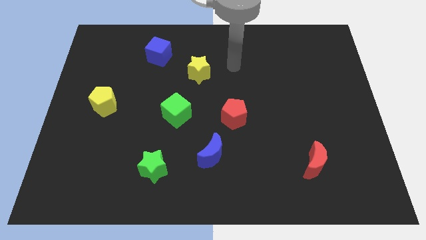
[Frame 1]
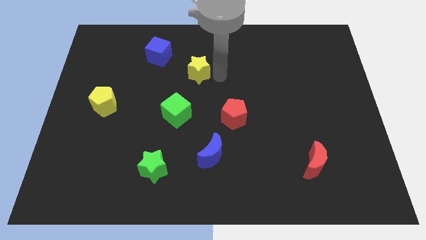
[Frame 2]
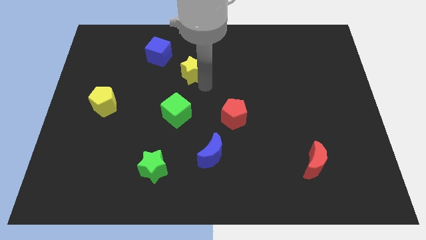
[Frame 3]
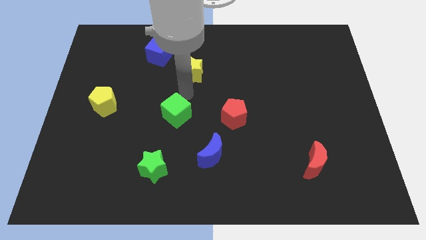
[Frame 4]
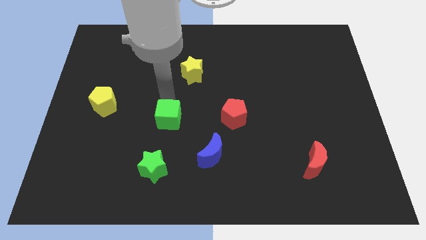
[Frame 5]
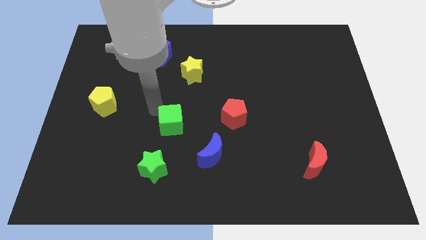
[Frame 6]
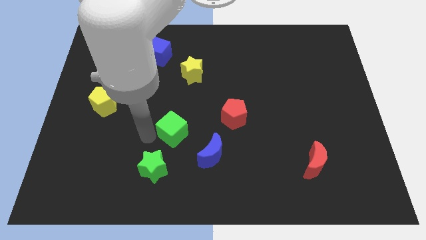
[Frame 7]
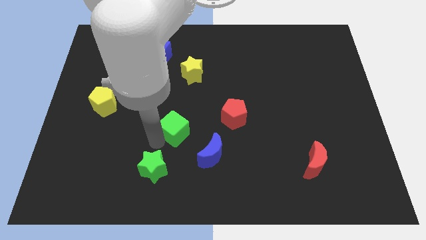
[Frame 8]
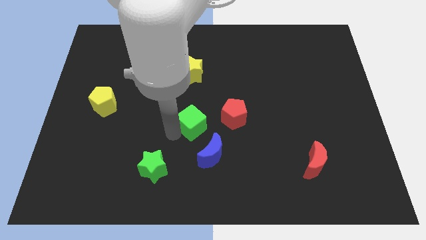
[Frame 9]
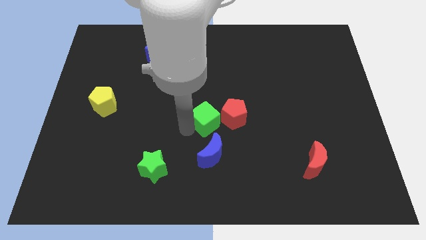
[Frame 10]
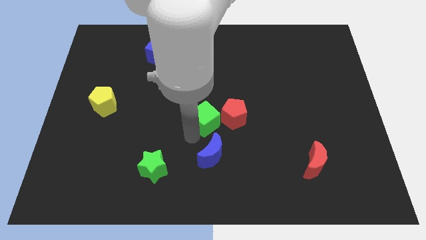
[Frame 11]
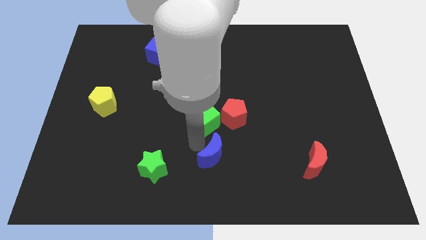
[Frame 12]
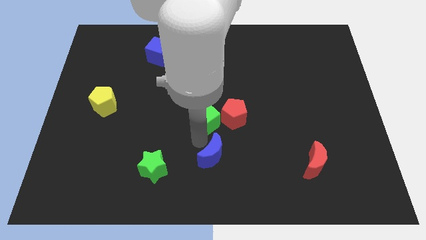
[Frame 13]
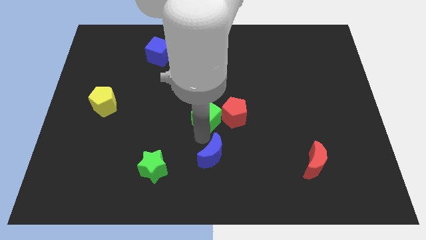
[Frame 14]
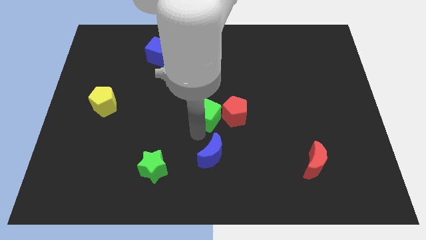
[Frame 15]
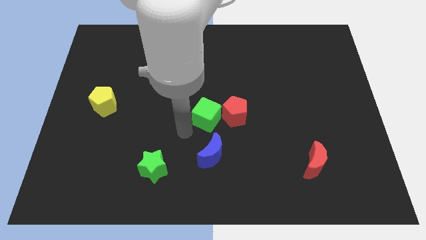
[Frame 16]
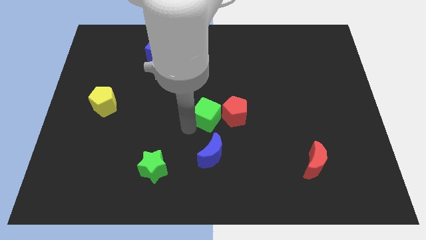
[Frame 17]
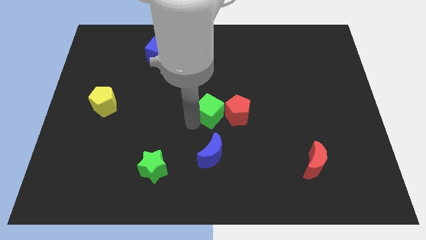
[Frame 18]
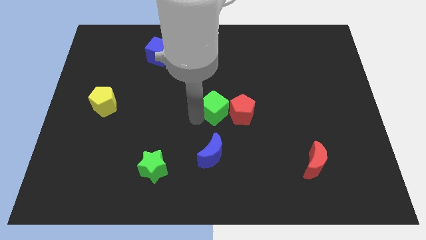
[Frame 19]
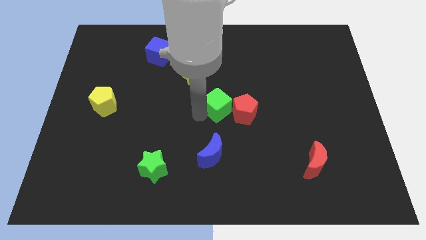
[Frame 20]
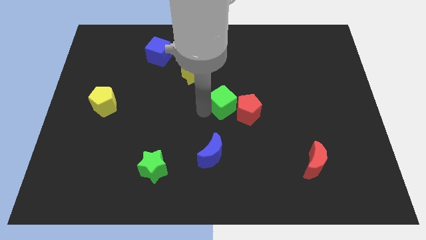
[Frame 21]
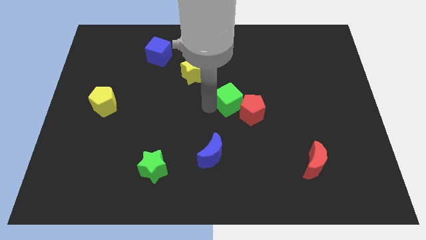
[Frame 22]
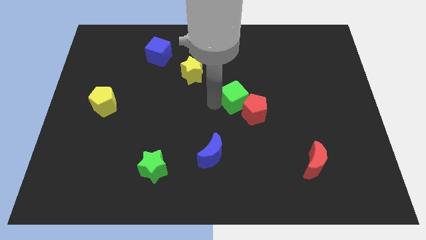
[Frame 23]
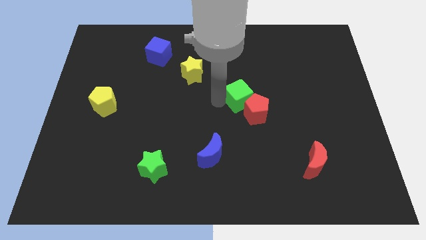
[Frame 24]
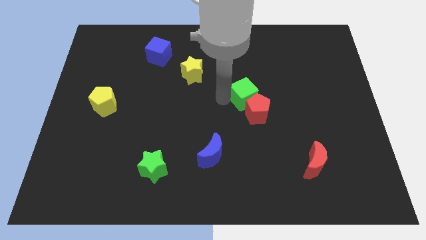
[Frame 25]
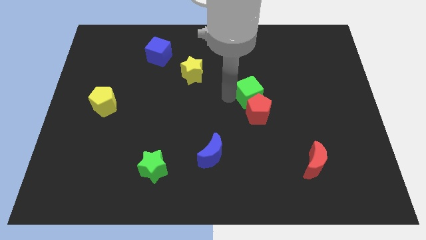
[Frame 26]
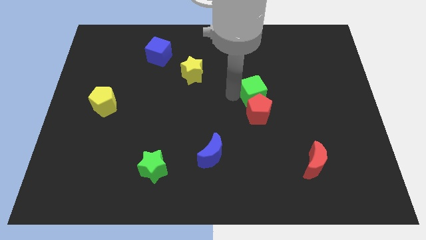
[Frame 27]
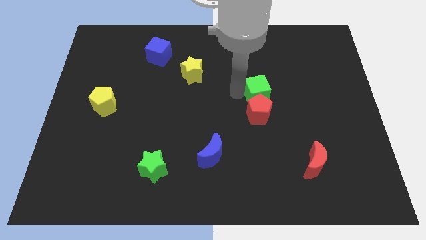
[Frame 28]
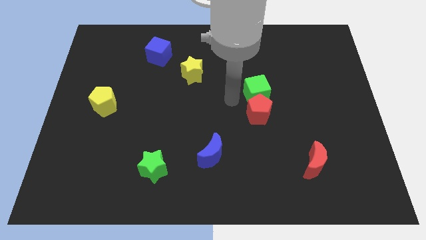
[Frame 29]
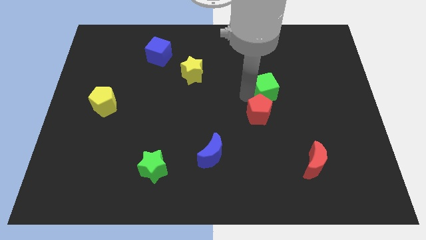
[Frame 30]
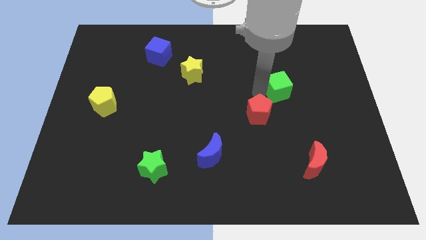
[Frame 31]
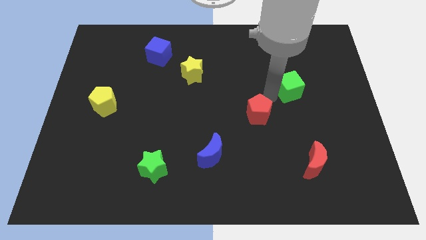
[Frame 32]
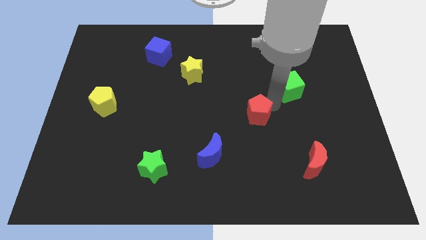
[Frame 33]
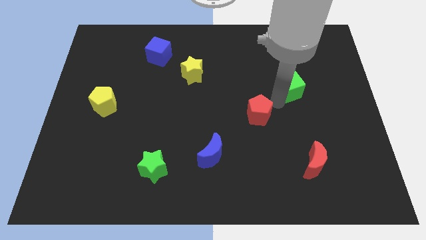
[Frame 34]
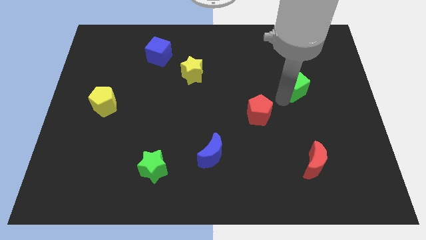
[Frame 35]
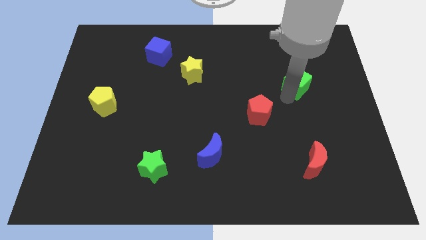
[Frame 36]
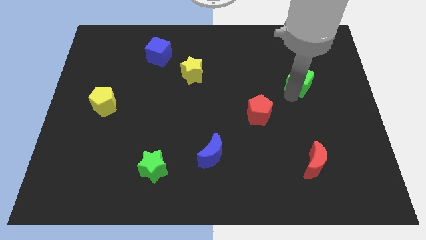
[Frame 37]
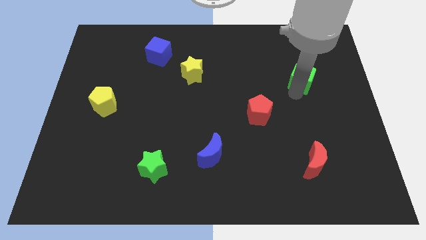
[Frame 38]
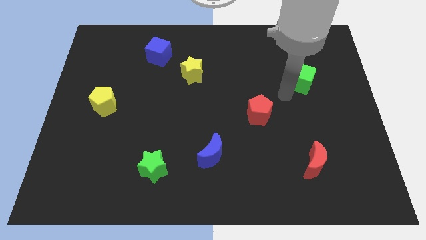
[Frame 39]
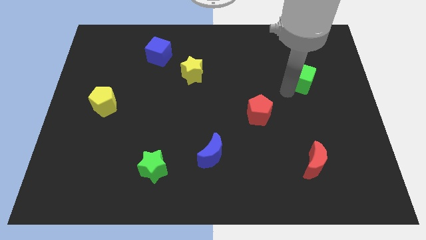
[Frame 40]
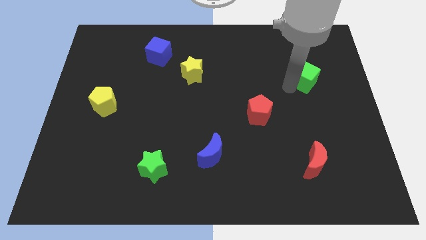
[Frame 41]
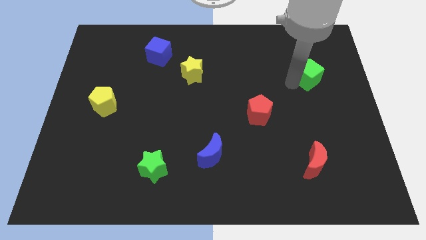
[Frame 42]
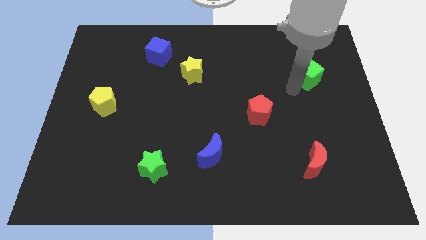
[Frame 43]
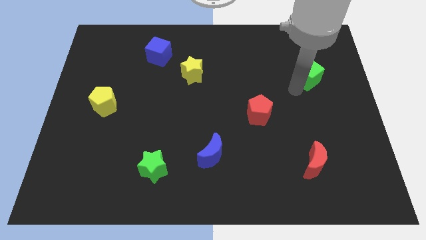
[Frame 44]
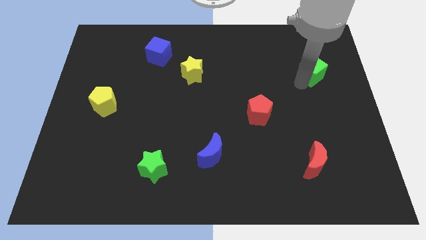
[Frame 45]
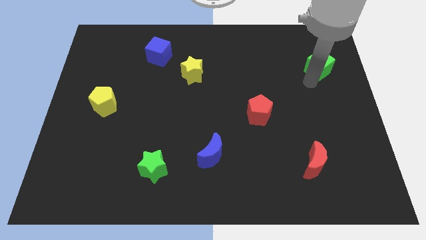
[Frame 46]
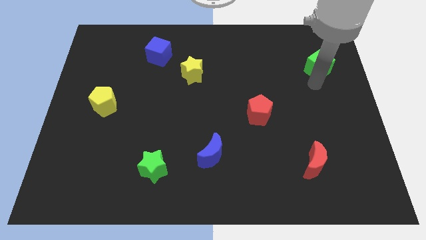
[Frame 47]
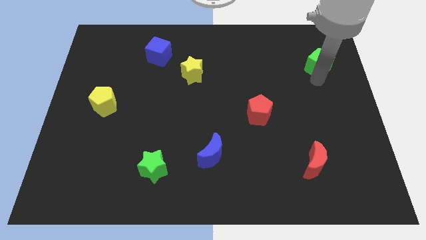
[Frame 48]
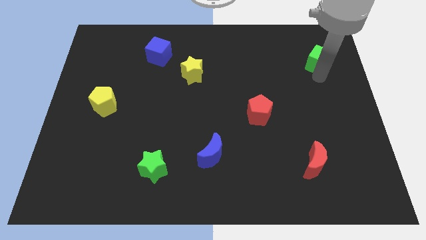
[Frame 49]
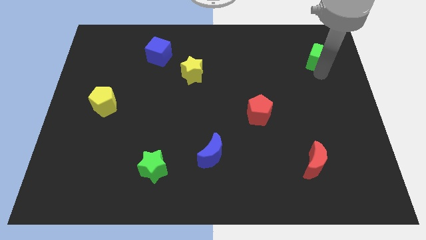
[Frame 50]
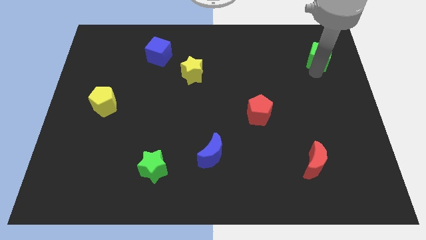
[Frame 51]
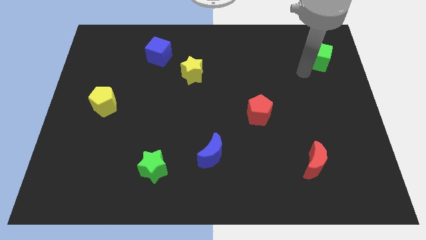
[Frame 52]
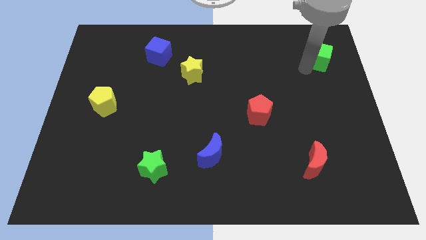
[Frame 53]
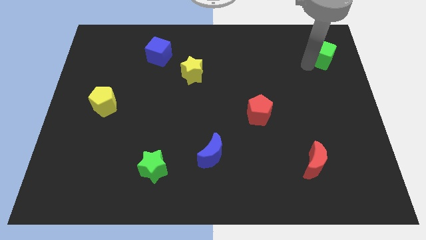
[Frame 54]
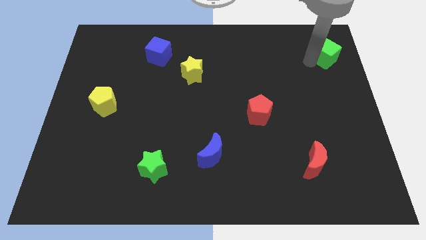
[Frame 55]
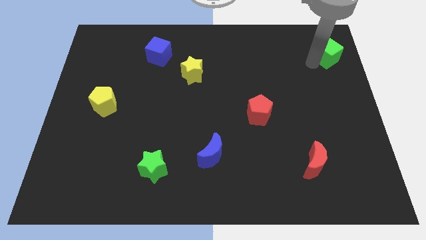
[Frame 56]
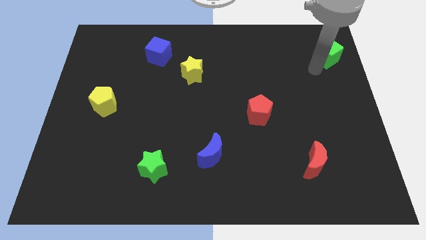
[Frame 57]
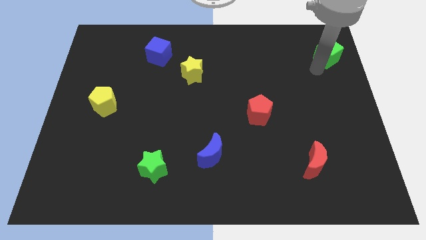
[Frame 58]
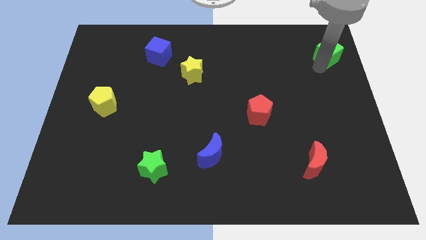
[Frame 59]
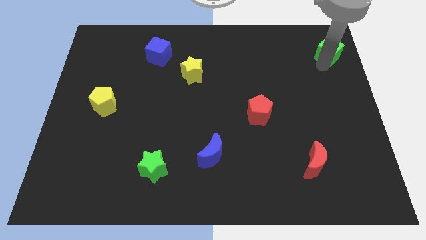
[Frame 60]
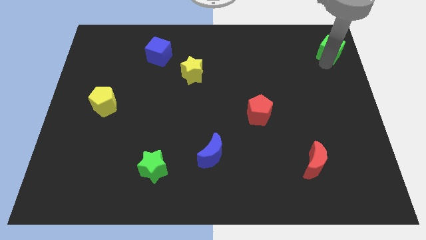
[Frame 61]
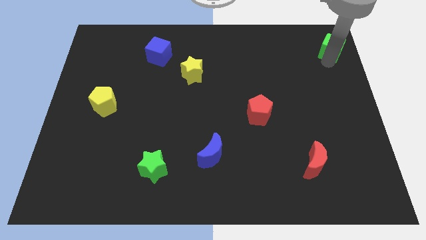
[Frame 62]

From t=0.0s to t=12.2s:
put the green cube to the top right

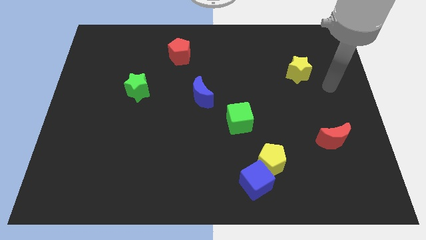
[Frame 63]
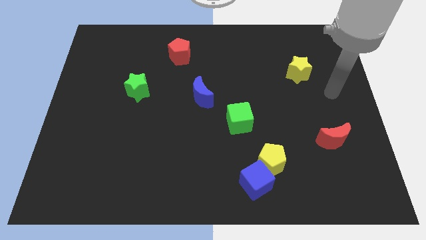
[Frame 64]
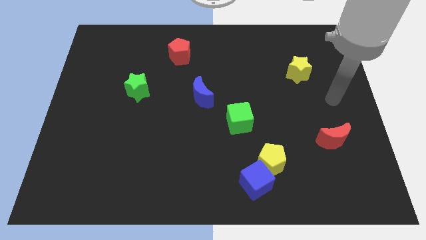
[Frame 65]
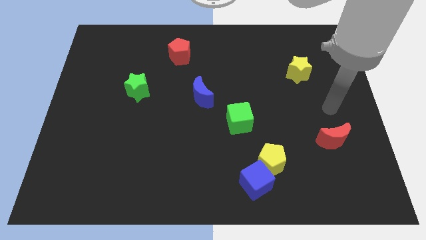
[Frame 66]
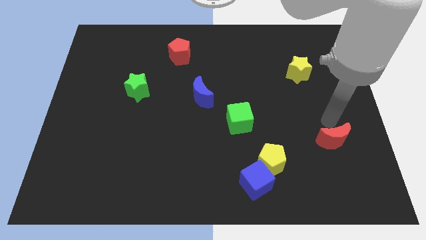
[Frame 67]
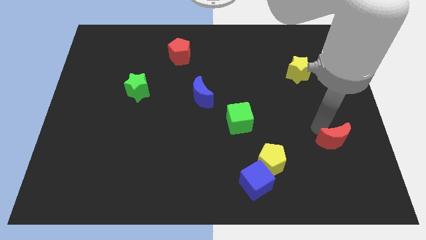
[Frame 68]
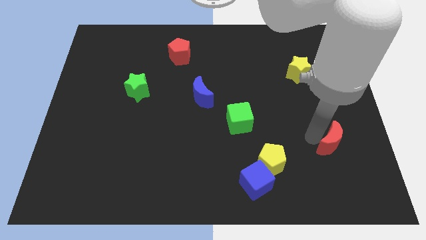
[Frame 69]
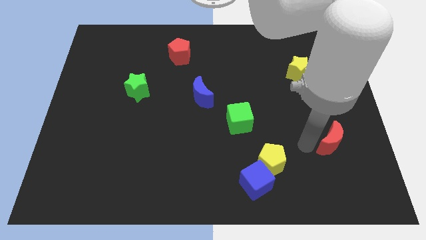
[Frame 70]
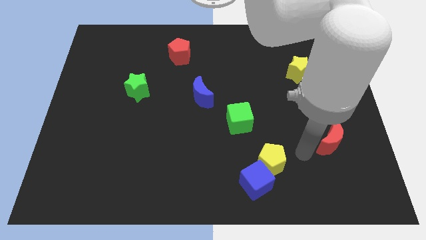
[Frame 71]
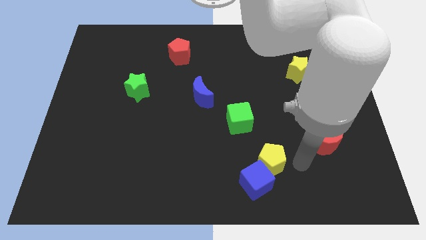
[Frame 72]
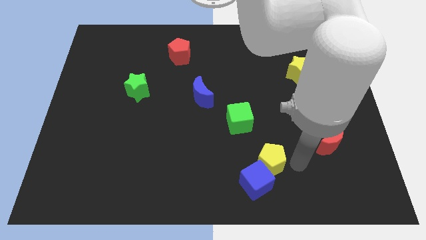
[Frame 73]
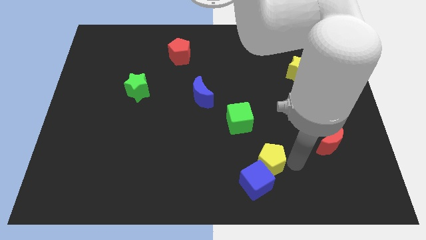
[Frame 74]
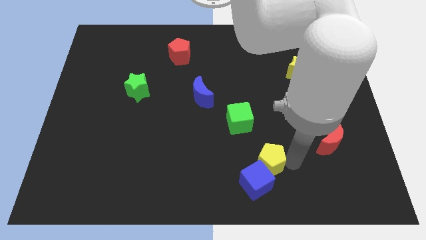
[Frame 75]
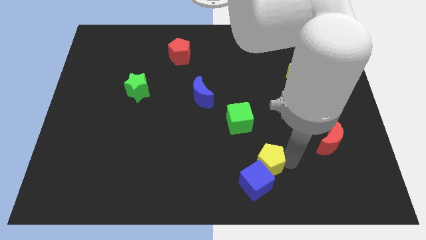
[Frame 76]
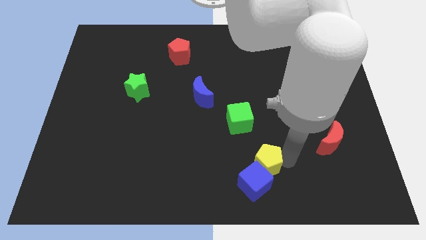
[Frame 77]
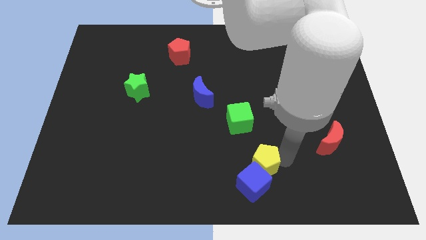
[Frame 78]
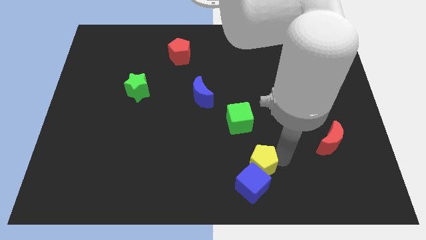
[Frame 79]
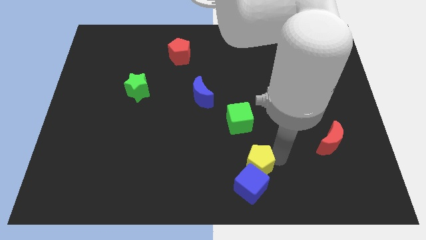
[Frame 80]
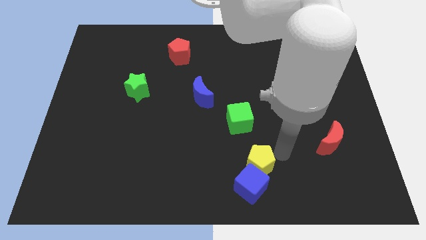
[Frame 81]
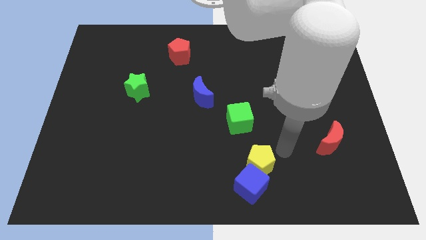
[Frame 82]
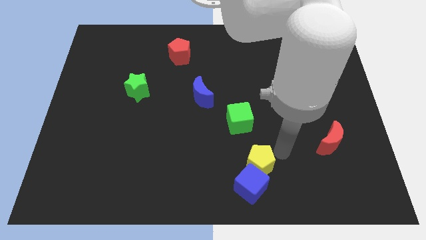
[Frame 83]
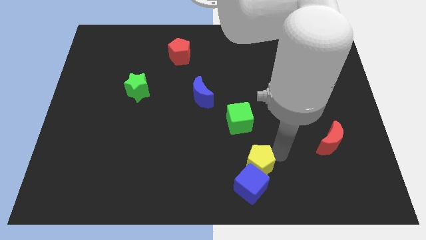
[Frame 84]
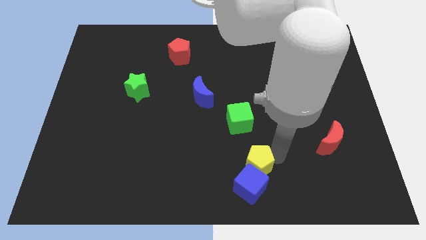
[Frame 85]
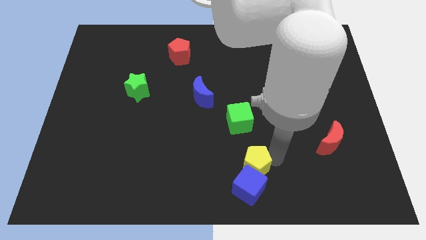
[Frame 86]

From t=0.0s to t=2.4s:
slide the yellow pentagon to the bottom side
